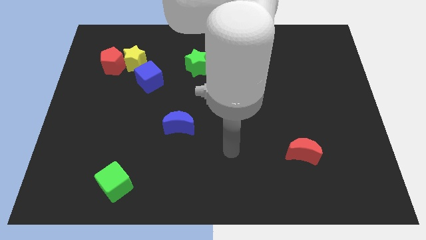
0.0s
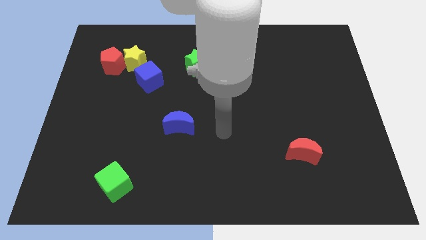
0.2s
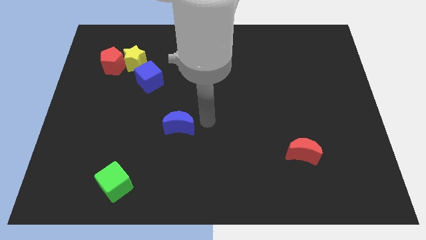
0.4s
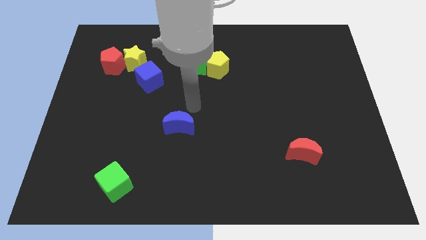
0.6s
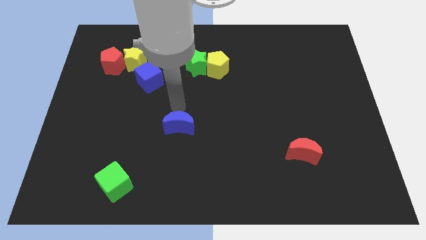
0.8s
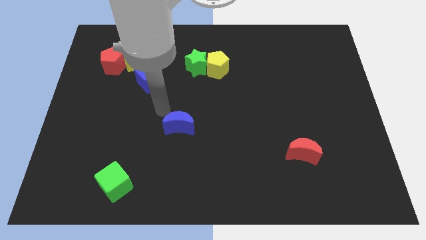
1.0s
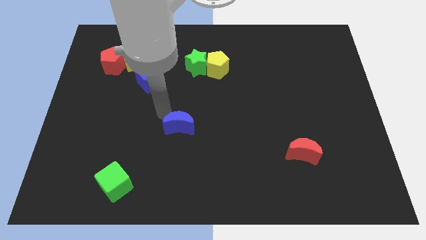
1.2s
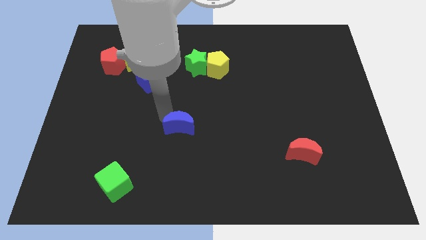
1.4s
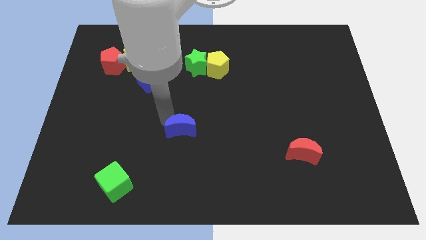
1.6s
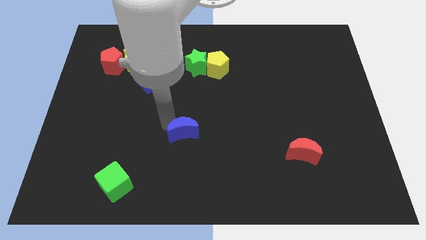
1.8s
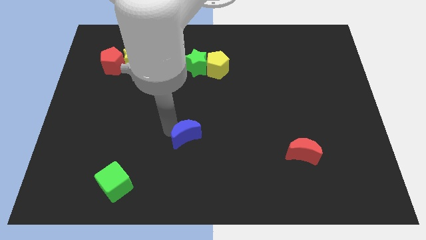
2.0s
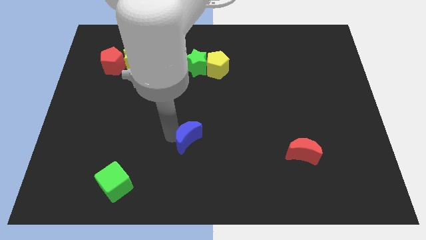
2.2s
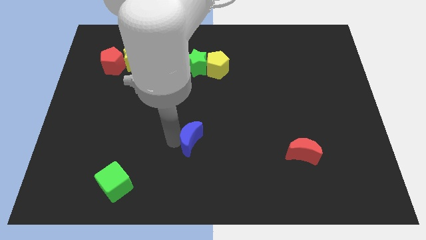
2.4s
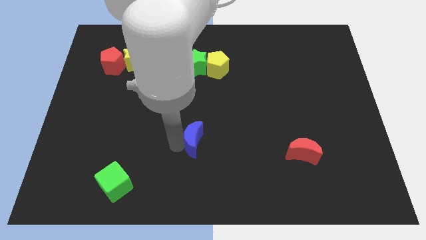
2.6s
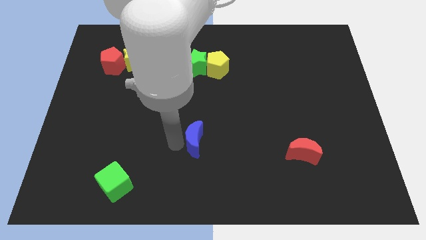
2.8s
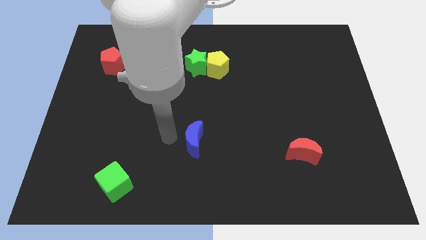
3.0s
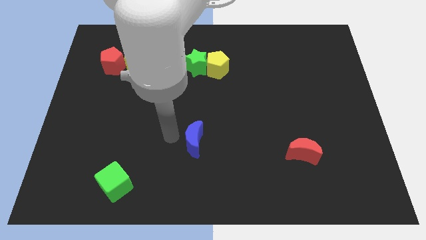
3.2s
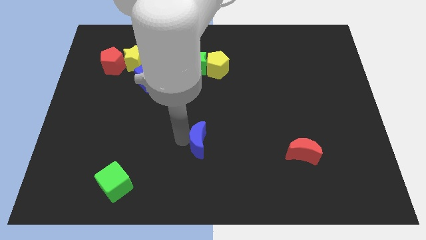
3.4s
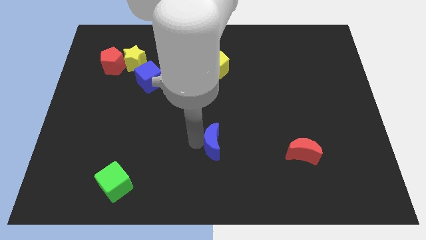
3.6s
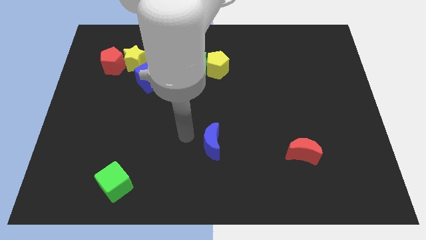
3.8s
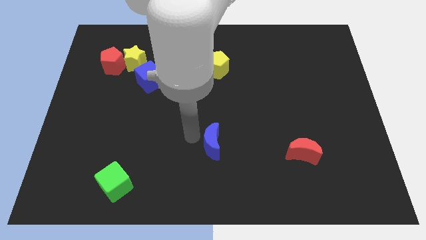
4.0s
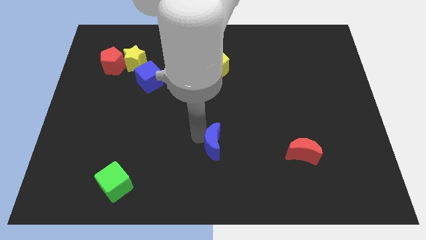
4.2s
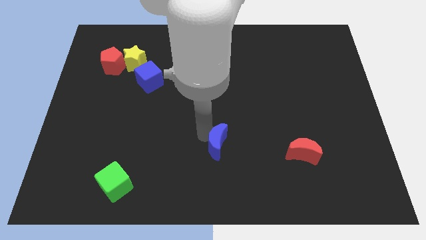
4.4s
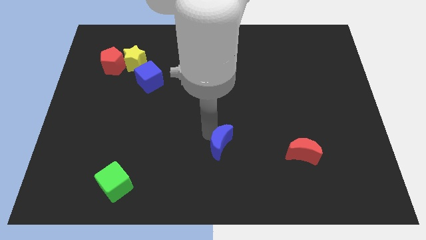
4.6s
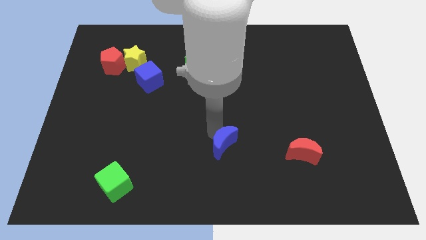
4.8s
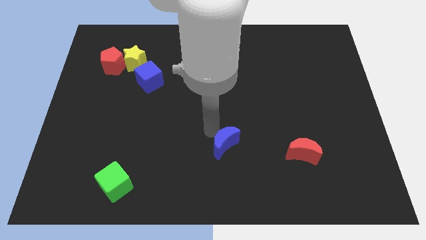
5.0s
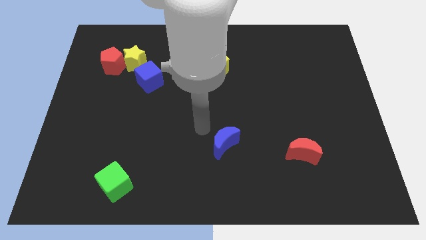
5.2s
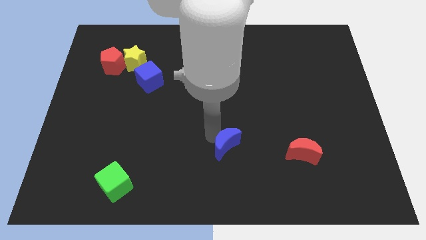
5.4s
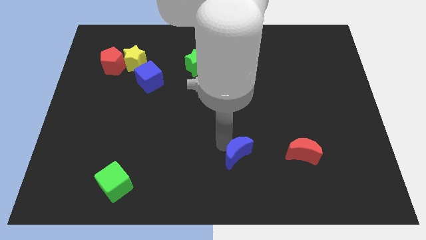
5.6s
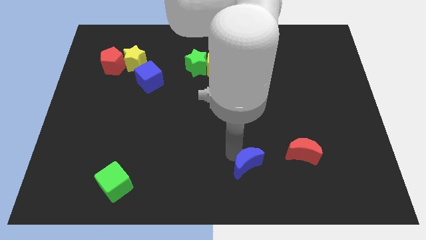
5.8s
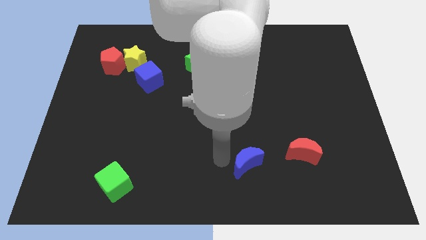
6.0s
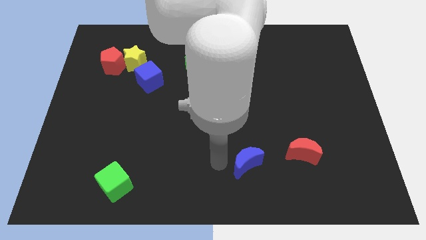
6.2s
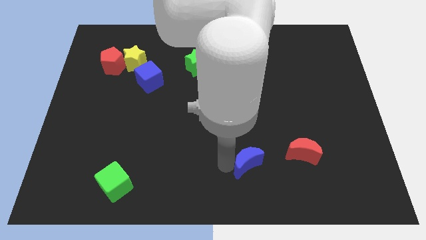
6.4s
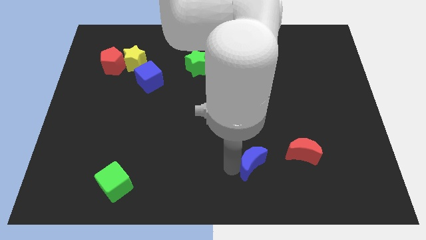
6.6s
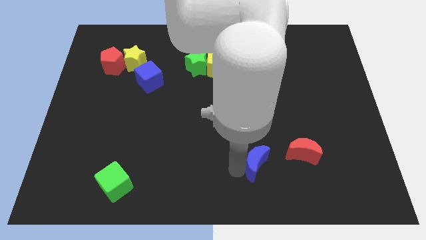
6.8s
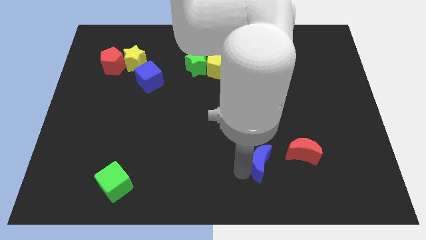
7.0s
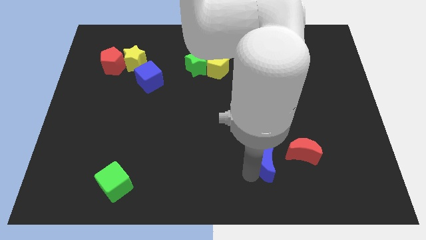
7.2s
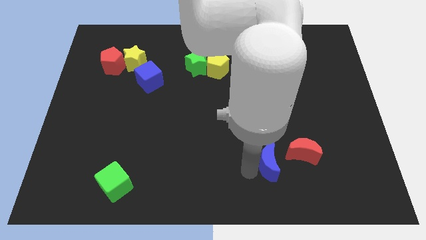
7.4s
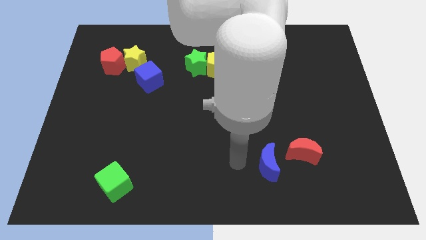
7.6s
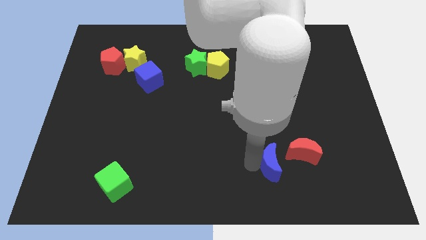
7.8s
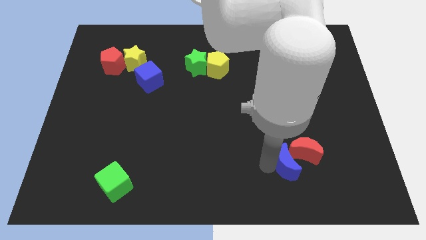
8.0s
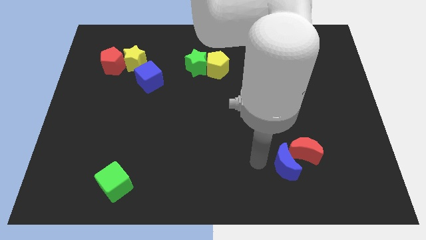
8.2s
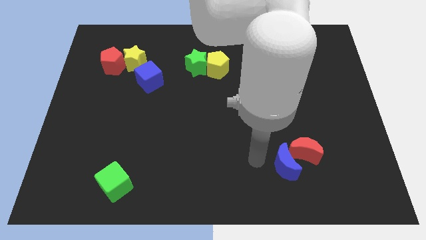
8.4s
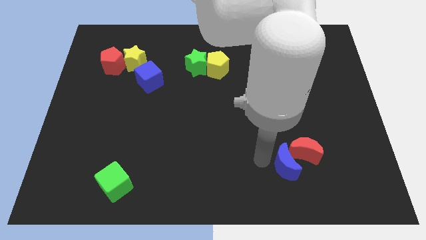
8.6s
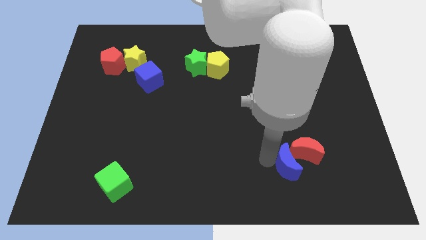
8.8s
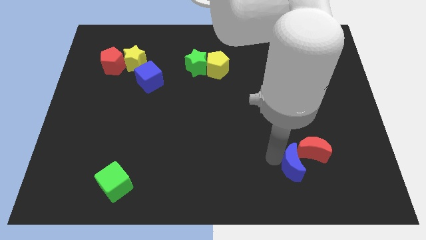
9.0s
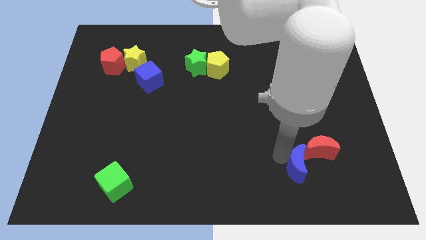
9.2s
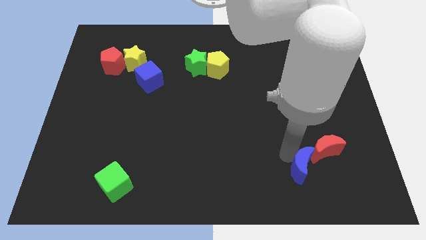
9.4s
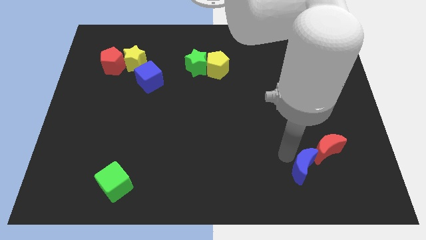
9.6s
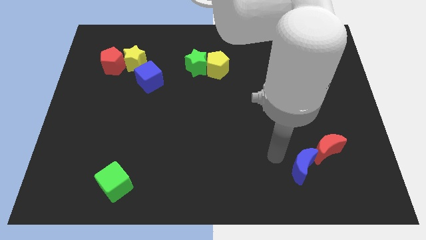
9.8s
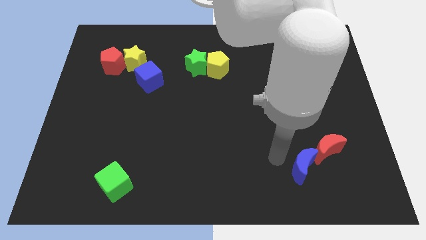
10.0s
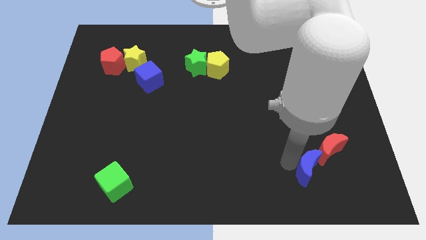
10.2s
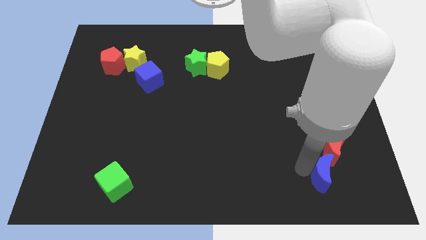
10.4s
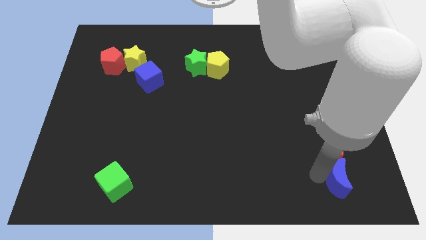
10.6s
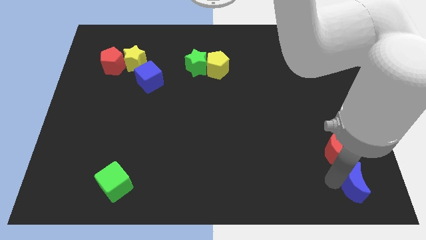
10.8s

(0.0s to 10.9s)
slide the blue moon to the bottom right corner
